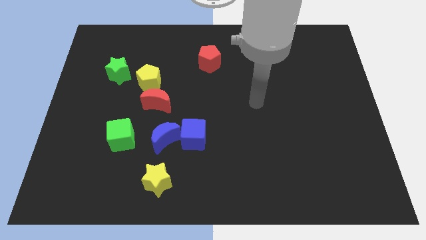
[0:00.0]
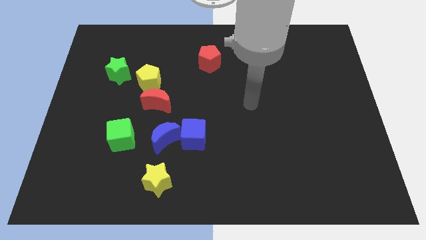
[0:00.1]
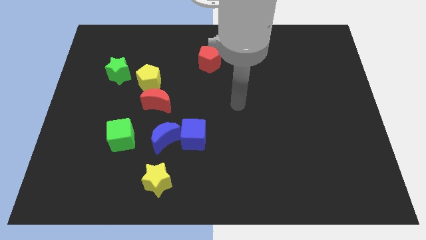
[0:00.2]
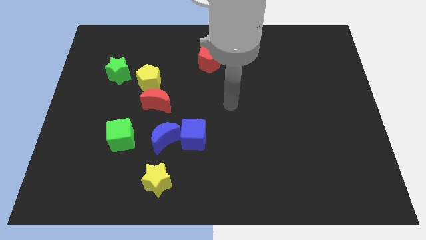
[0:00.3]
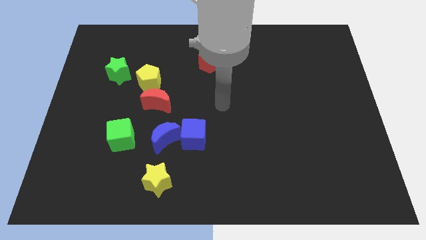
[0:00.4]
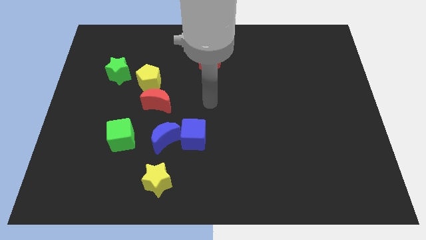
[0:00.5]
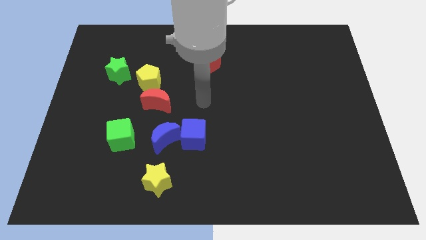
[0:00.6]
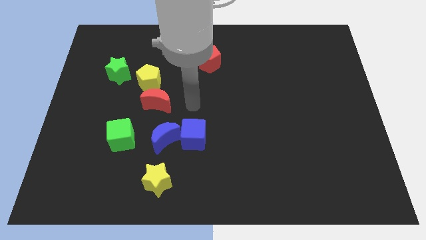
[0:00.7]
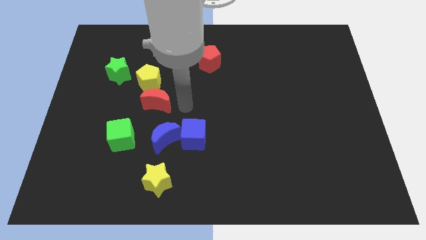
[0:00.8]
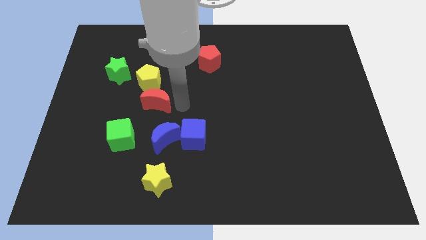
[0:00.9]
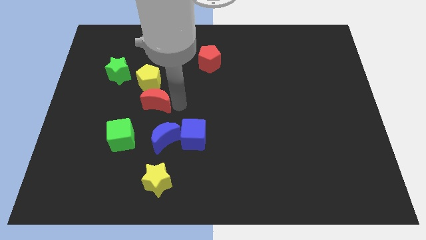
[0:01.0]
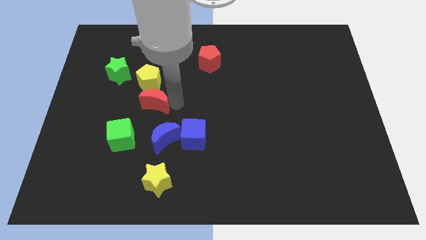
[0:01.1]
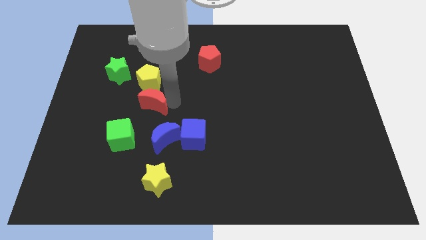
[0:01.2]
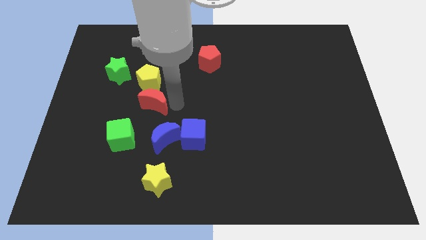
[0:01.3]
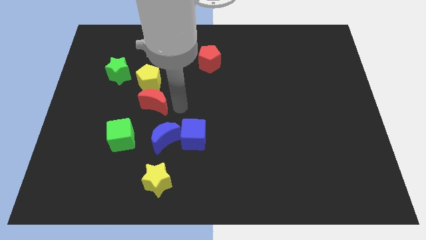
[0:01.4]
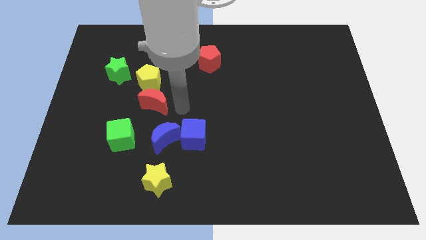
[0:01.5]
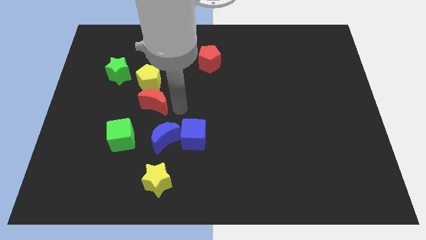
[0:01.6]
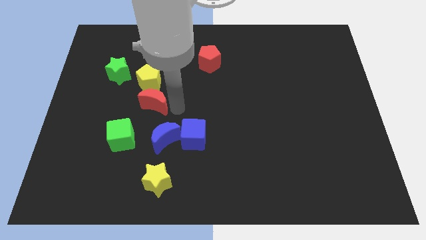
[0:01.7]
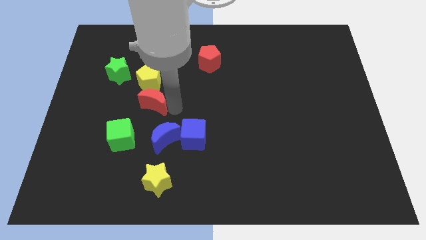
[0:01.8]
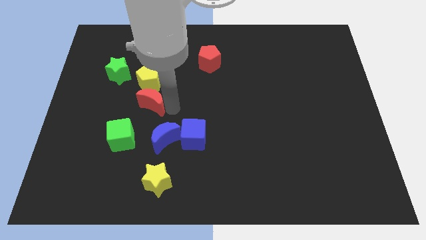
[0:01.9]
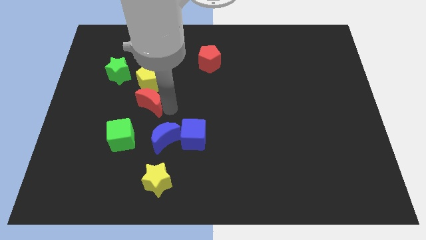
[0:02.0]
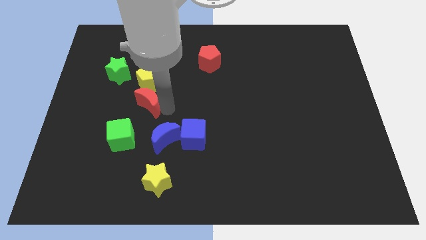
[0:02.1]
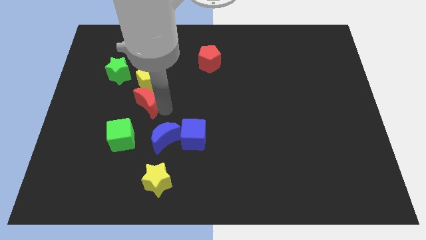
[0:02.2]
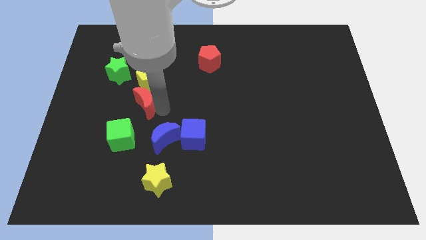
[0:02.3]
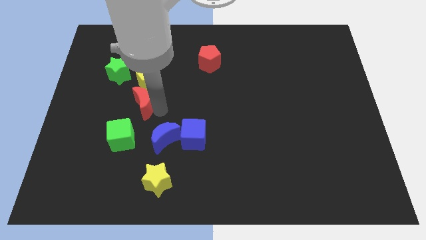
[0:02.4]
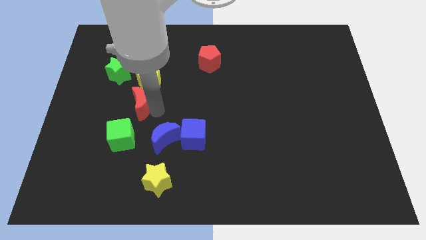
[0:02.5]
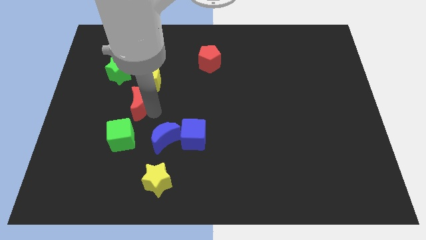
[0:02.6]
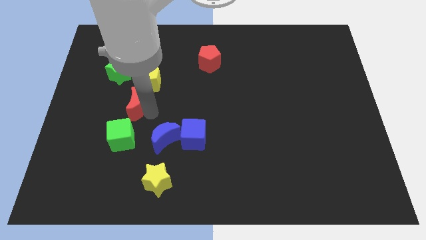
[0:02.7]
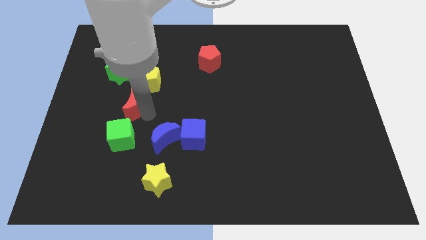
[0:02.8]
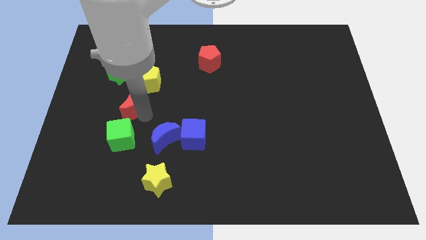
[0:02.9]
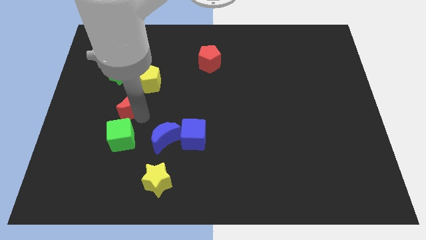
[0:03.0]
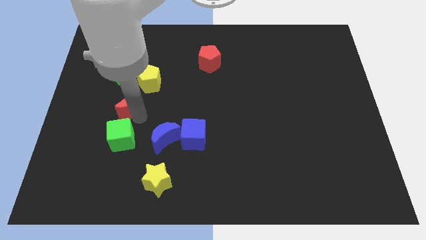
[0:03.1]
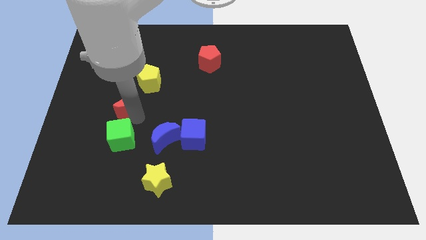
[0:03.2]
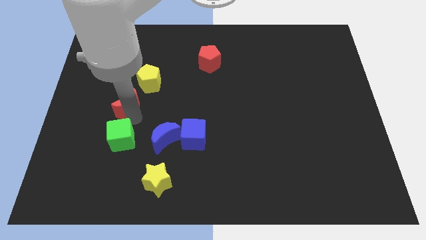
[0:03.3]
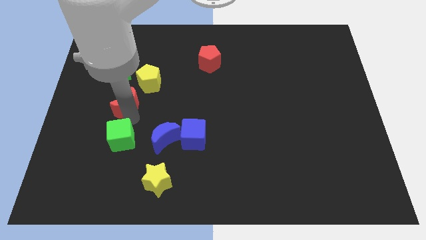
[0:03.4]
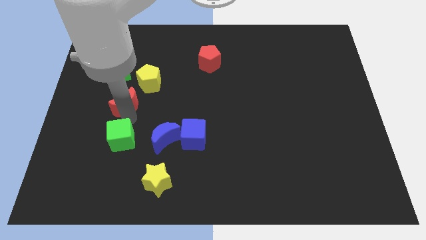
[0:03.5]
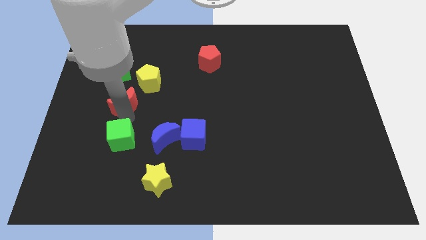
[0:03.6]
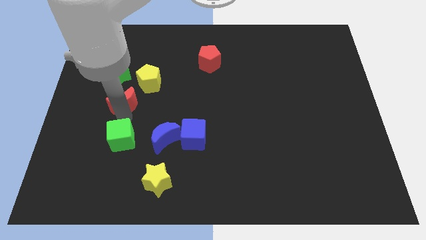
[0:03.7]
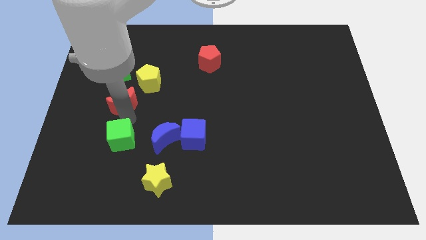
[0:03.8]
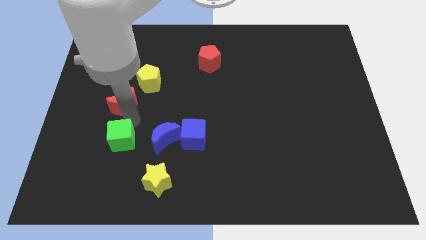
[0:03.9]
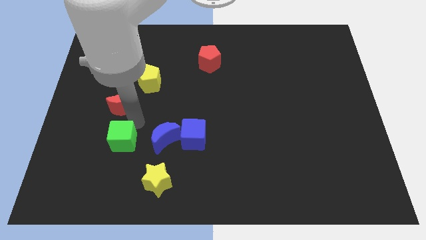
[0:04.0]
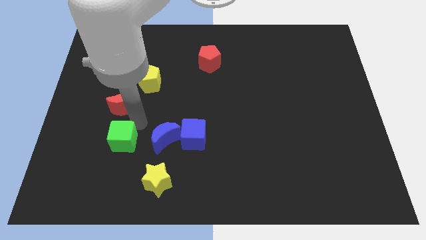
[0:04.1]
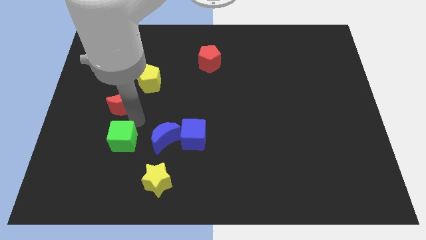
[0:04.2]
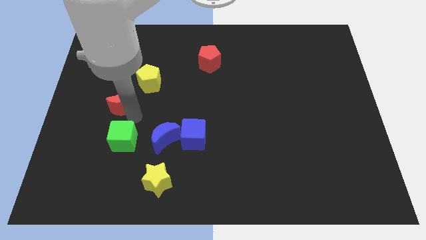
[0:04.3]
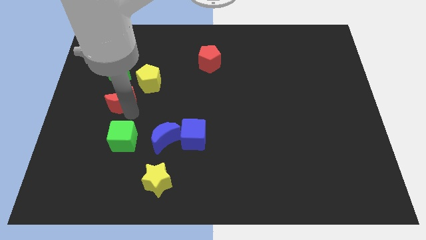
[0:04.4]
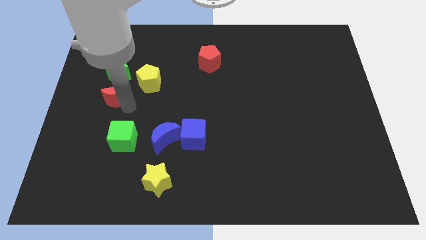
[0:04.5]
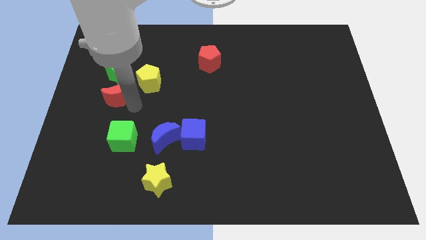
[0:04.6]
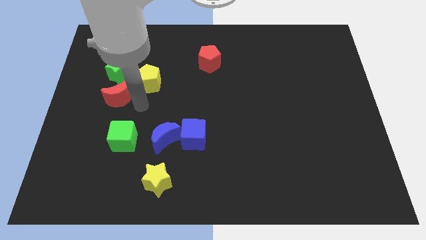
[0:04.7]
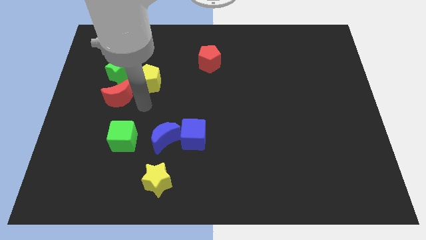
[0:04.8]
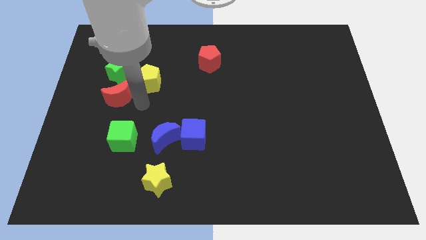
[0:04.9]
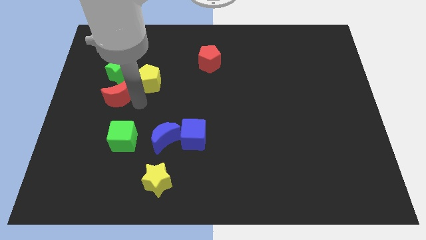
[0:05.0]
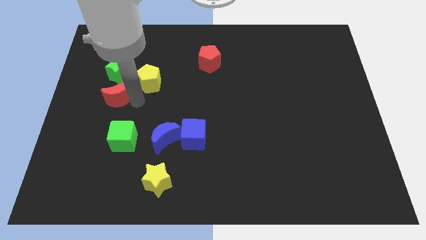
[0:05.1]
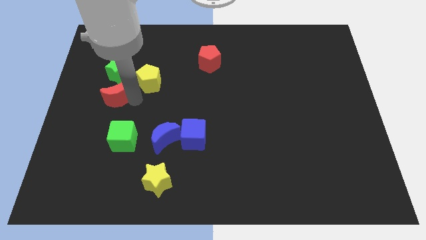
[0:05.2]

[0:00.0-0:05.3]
slightly push the red moon upwards and left

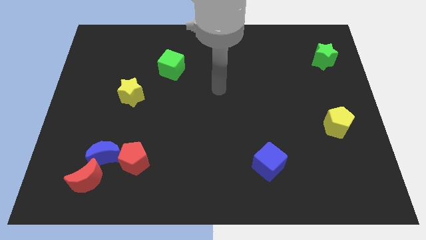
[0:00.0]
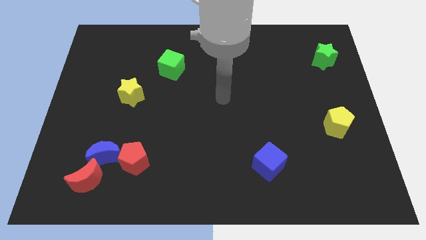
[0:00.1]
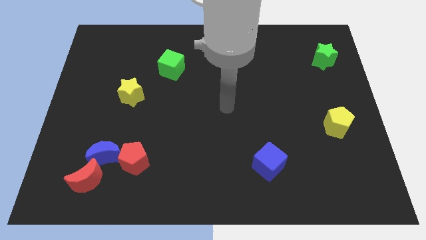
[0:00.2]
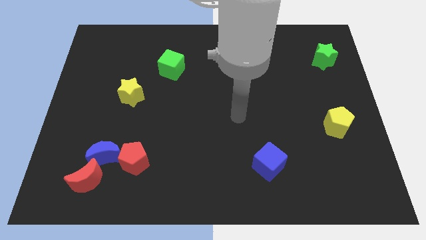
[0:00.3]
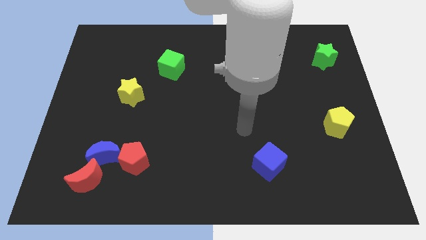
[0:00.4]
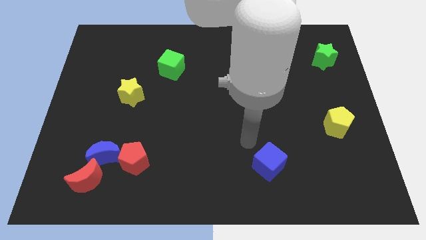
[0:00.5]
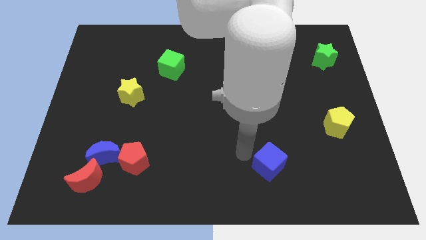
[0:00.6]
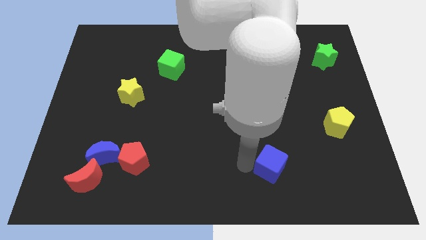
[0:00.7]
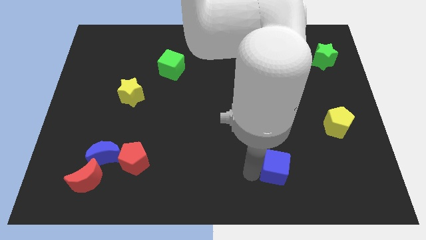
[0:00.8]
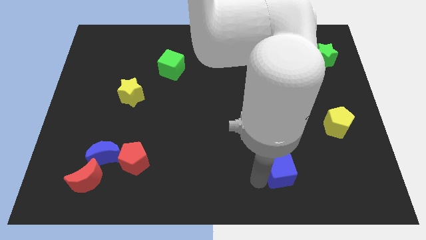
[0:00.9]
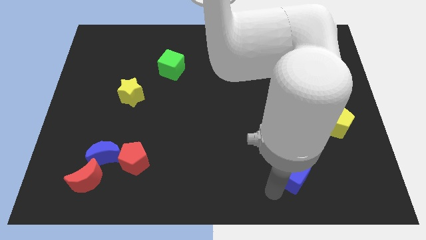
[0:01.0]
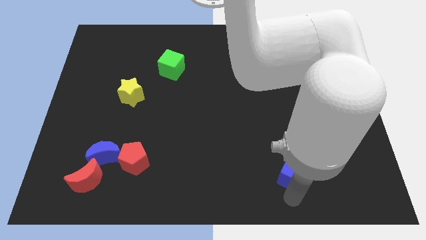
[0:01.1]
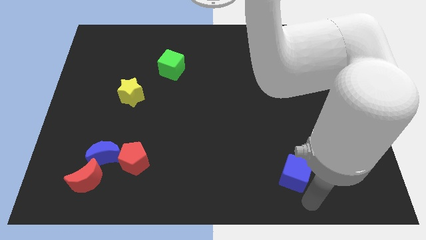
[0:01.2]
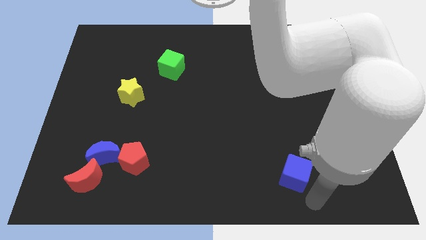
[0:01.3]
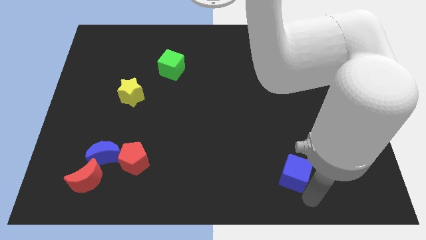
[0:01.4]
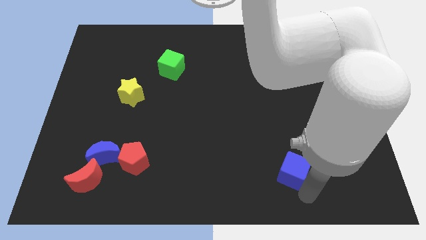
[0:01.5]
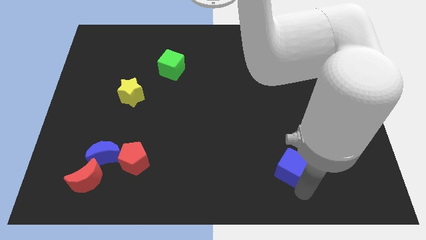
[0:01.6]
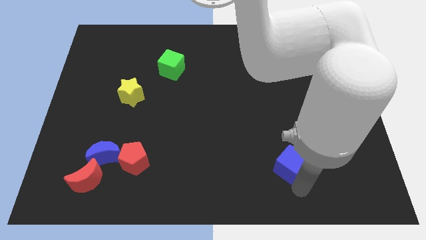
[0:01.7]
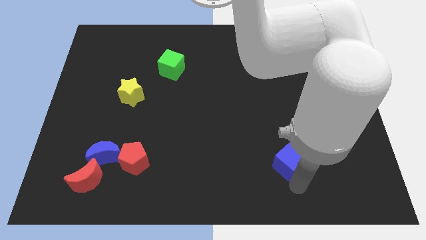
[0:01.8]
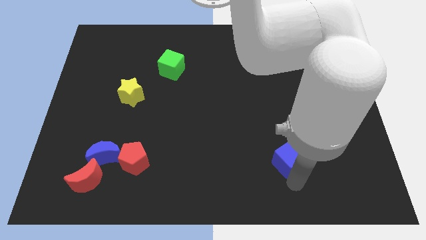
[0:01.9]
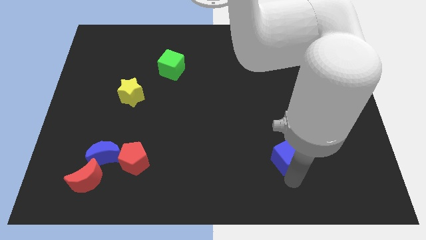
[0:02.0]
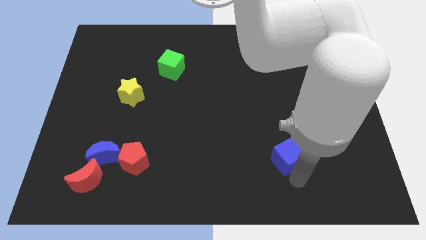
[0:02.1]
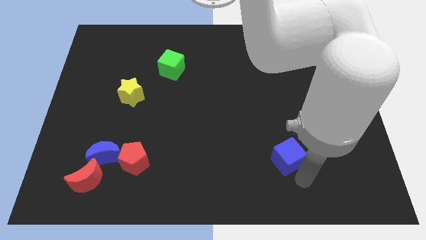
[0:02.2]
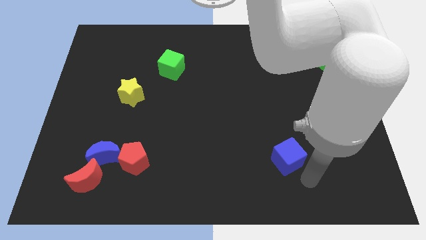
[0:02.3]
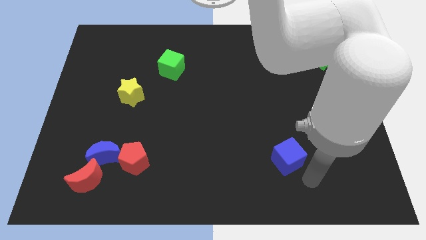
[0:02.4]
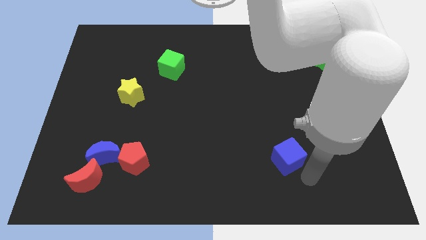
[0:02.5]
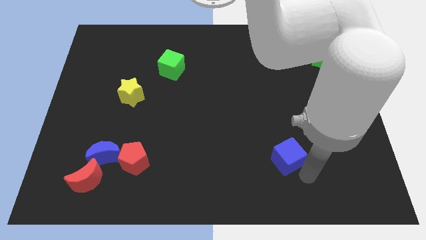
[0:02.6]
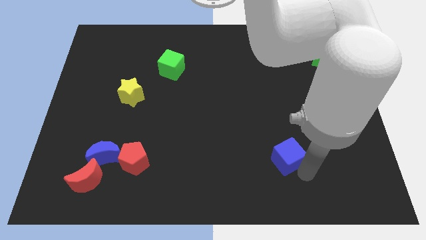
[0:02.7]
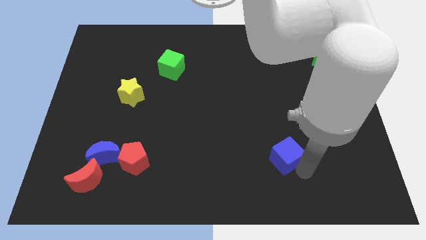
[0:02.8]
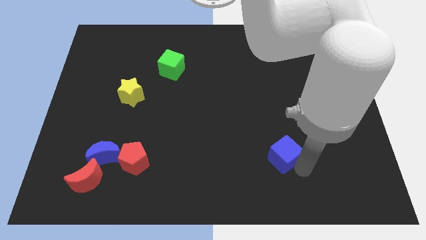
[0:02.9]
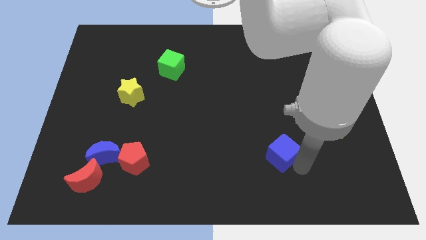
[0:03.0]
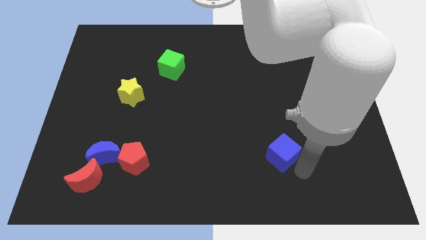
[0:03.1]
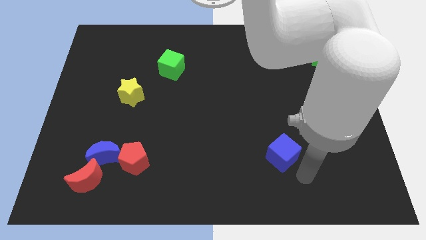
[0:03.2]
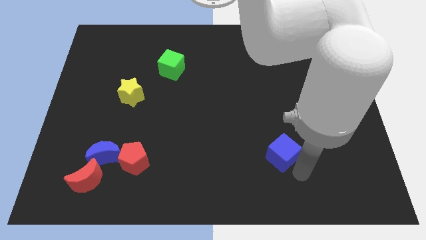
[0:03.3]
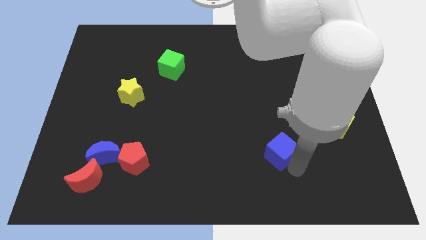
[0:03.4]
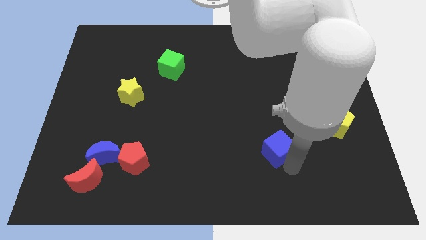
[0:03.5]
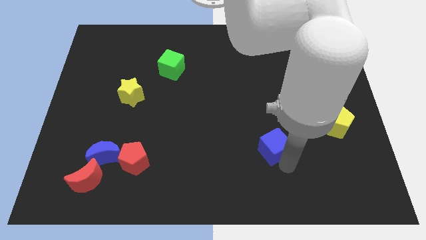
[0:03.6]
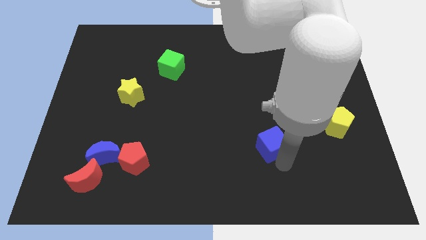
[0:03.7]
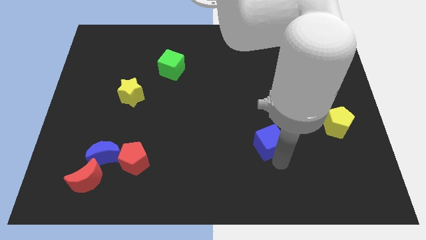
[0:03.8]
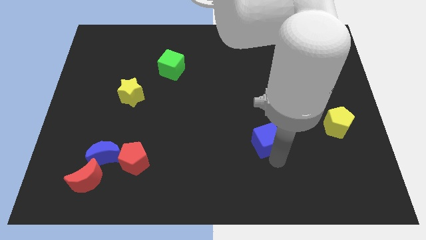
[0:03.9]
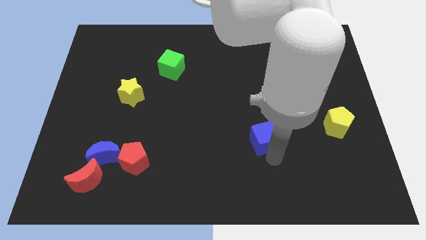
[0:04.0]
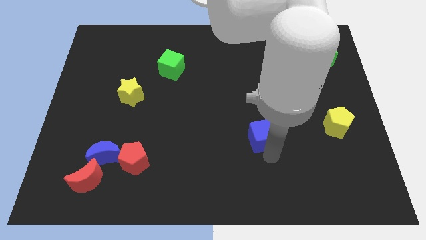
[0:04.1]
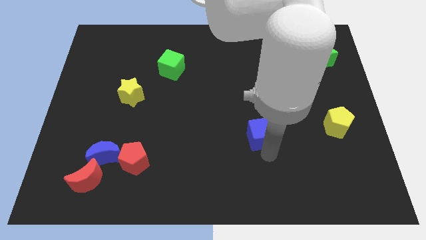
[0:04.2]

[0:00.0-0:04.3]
slightly move the blue cube upwards
